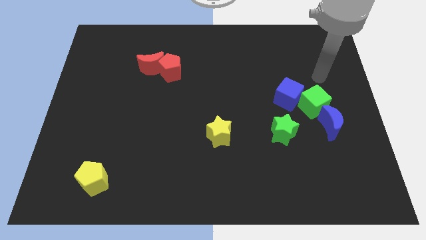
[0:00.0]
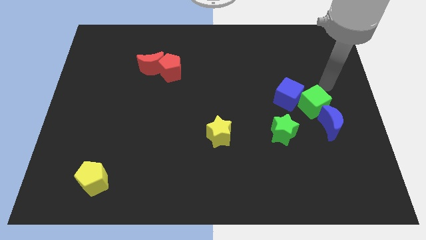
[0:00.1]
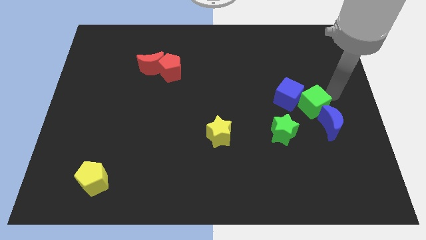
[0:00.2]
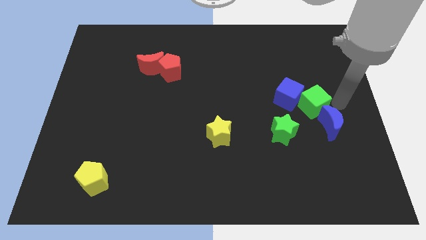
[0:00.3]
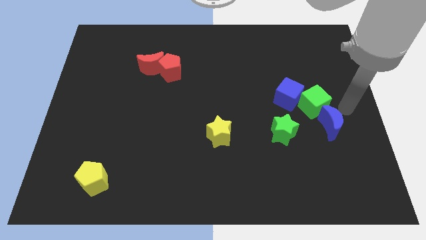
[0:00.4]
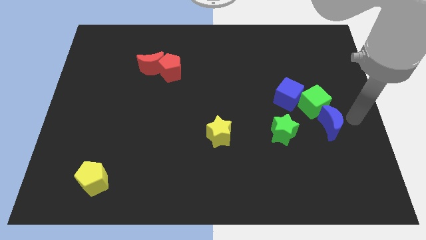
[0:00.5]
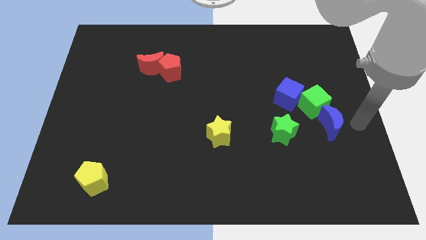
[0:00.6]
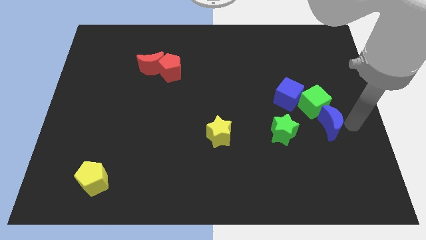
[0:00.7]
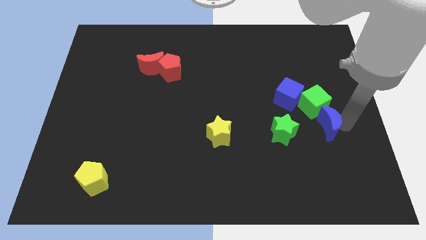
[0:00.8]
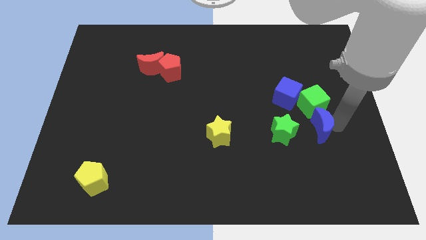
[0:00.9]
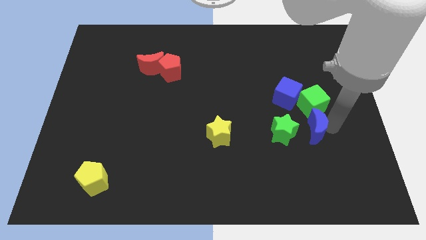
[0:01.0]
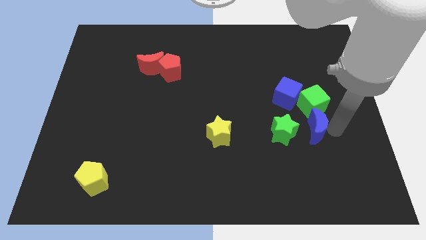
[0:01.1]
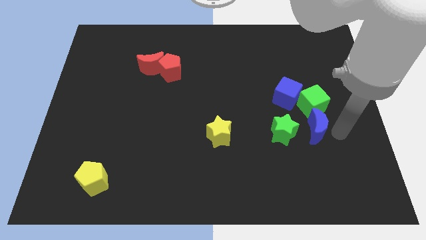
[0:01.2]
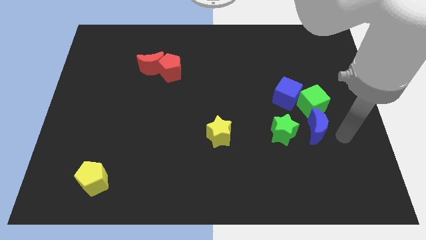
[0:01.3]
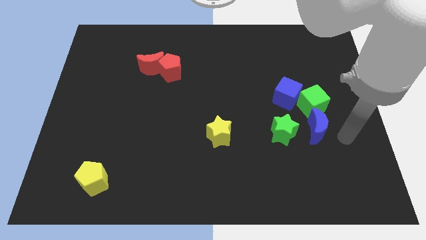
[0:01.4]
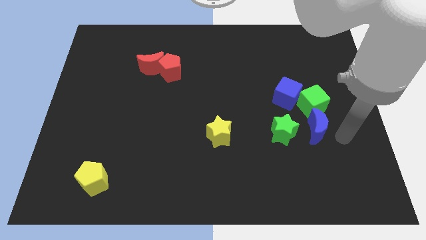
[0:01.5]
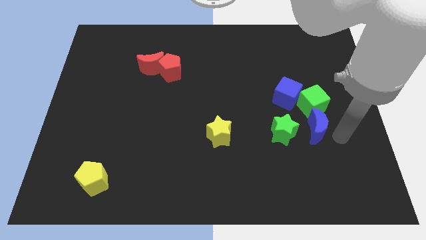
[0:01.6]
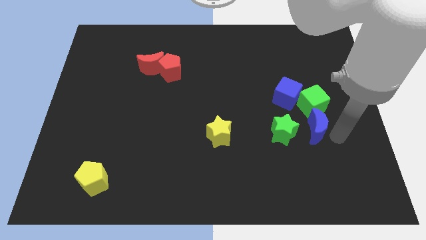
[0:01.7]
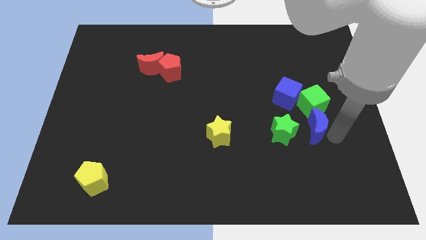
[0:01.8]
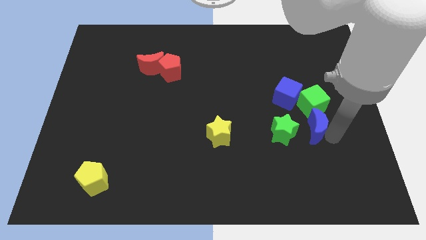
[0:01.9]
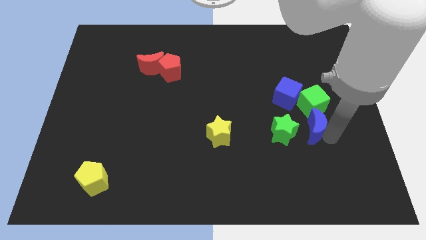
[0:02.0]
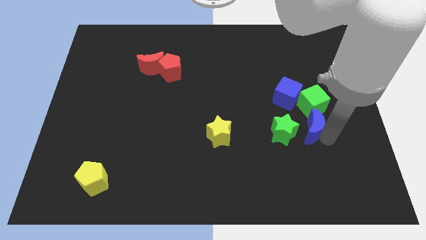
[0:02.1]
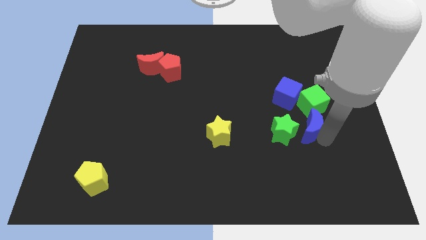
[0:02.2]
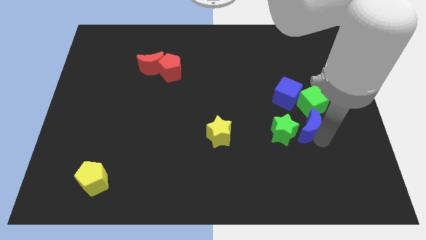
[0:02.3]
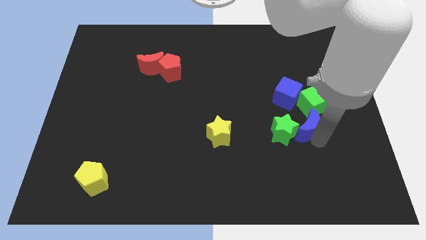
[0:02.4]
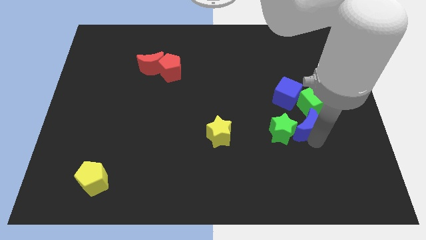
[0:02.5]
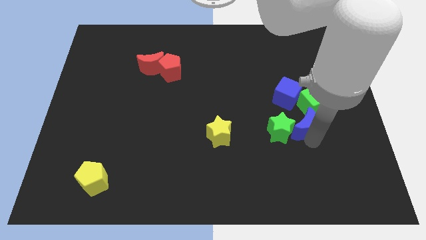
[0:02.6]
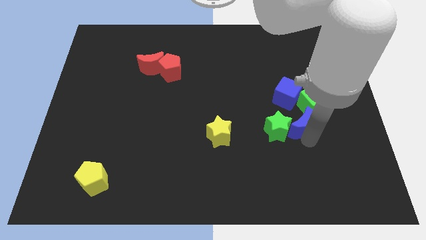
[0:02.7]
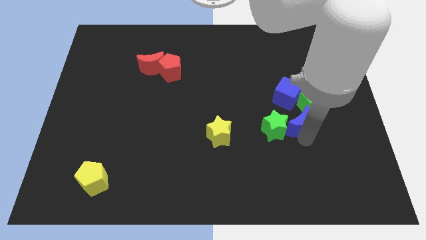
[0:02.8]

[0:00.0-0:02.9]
push the blue moon somewhat left

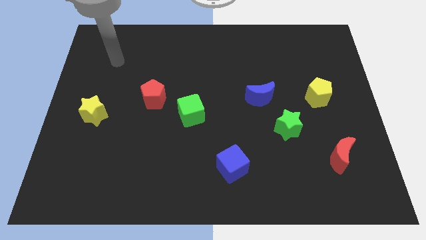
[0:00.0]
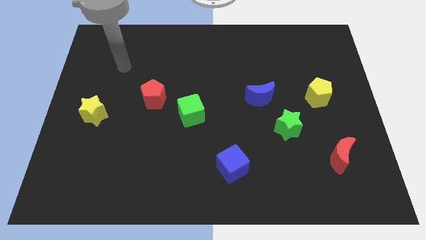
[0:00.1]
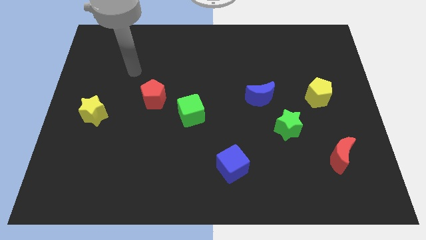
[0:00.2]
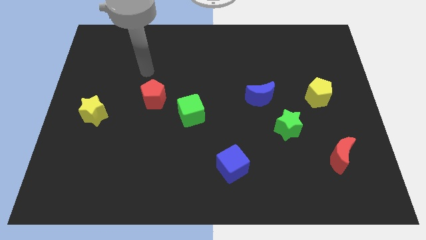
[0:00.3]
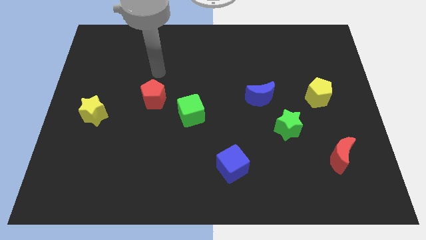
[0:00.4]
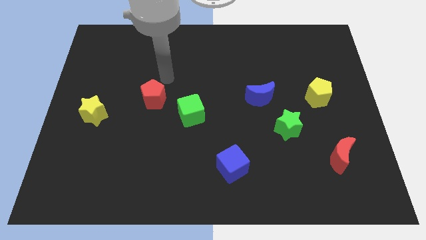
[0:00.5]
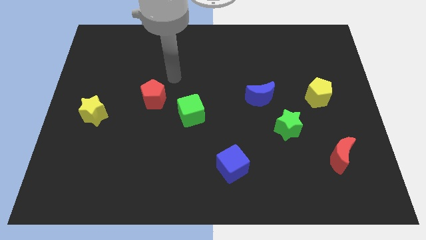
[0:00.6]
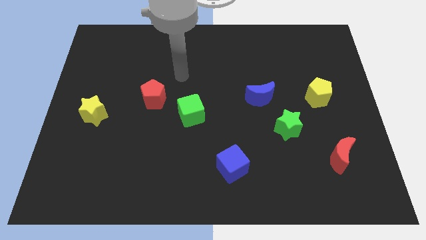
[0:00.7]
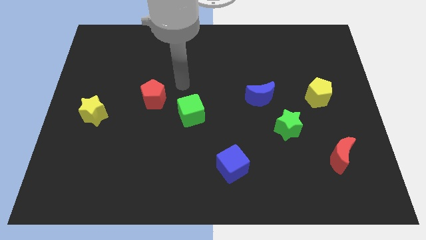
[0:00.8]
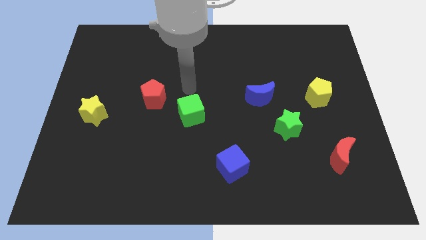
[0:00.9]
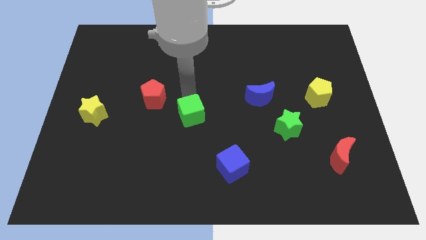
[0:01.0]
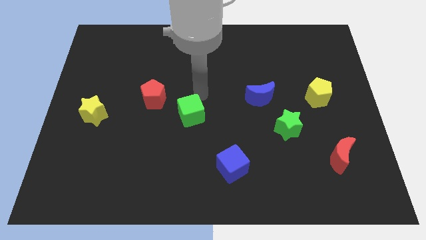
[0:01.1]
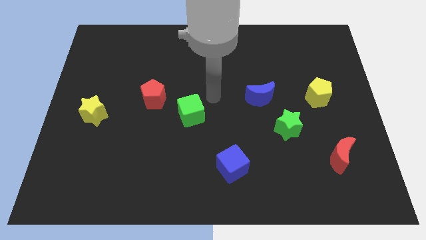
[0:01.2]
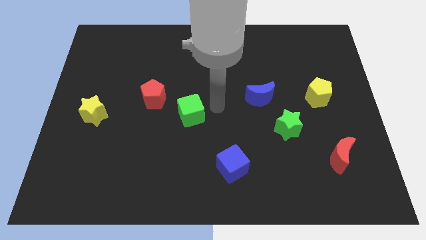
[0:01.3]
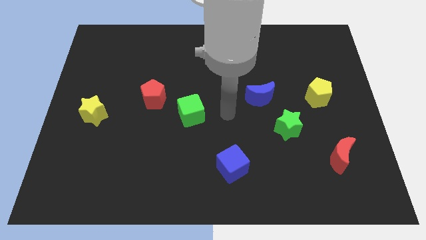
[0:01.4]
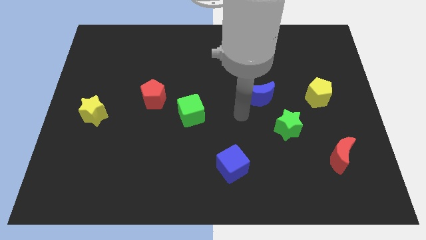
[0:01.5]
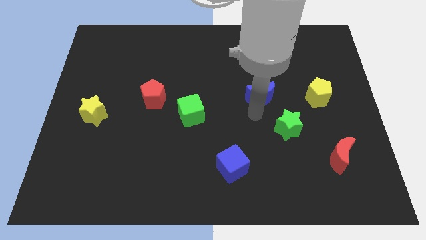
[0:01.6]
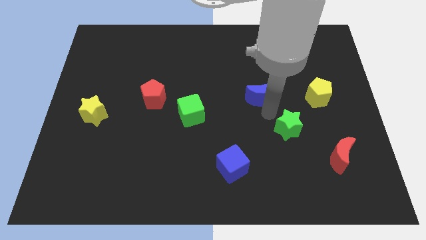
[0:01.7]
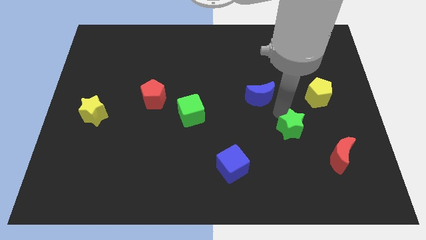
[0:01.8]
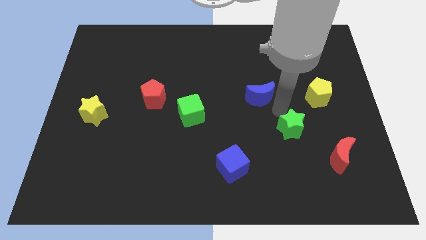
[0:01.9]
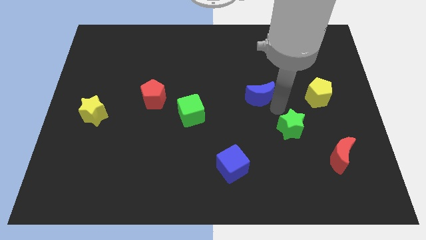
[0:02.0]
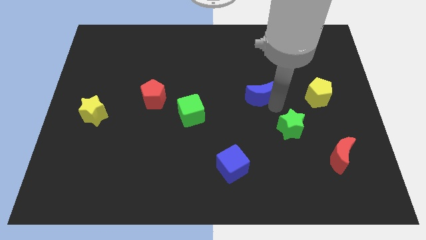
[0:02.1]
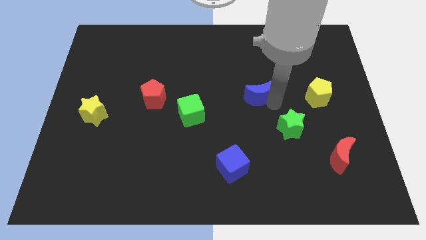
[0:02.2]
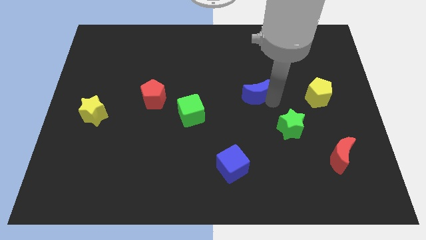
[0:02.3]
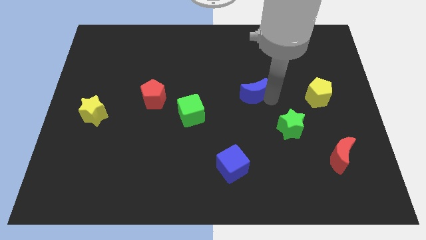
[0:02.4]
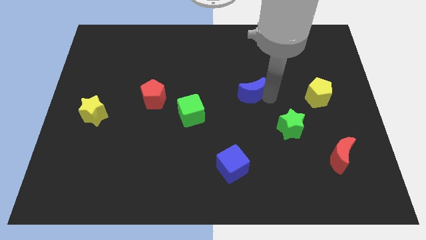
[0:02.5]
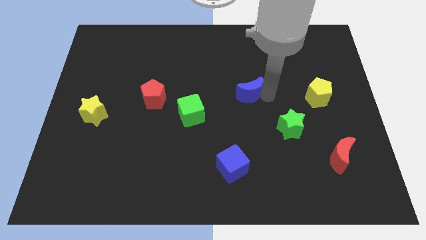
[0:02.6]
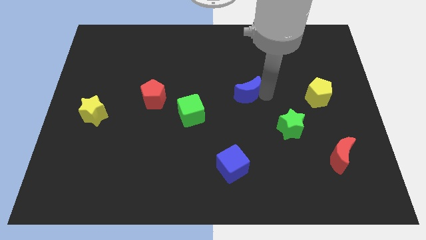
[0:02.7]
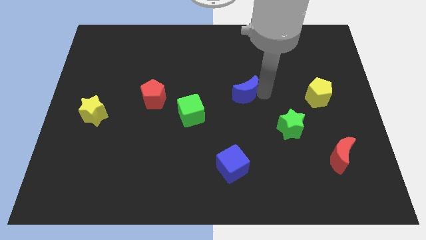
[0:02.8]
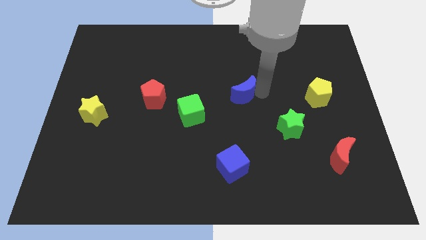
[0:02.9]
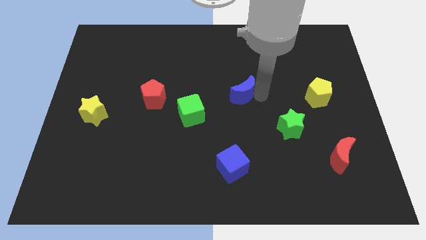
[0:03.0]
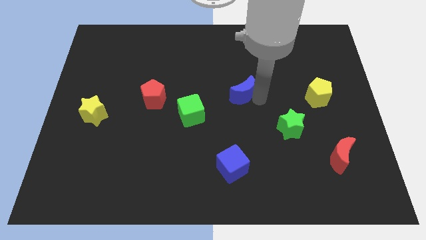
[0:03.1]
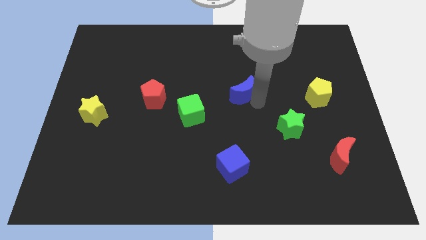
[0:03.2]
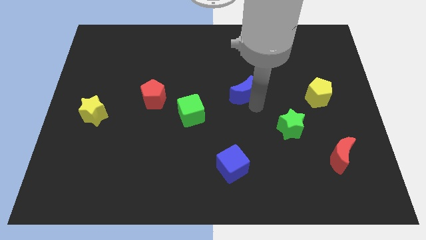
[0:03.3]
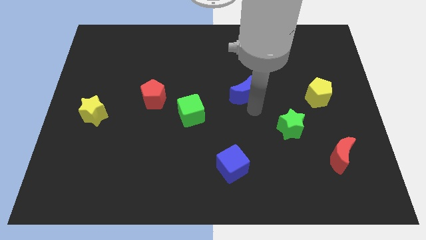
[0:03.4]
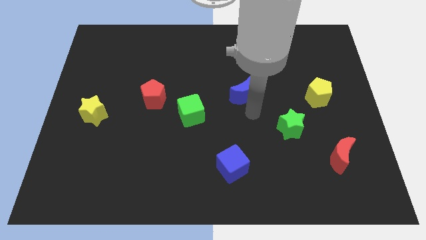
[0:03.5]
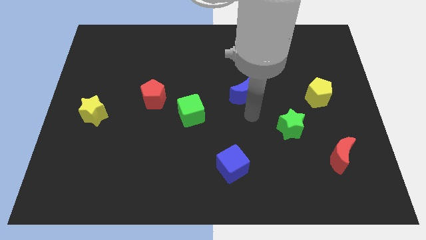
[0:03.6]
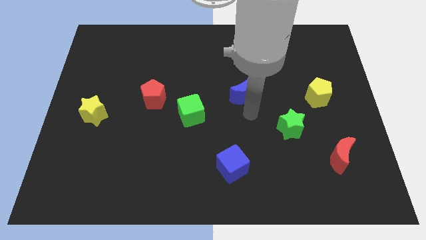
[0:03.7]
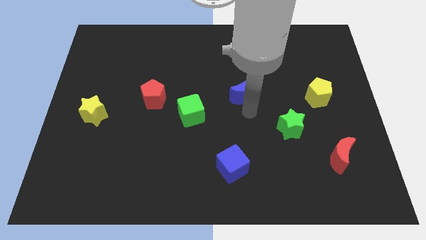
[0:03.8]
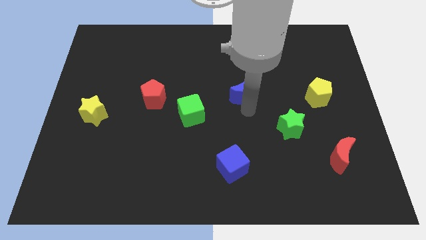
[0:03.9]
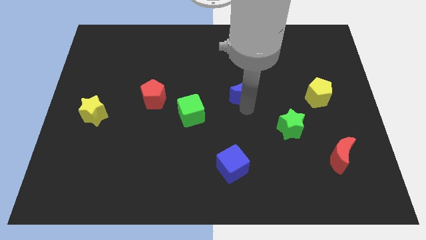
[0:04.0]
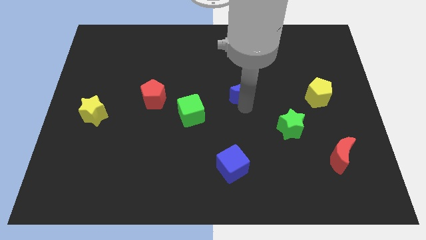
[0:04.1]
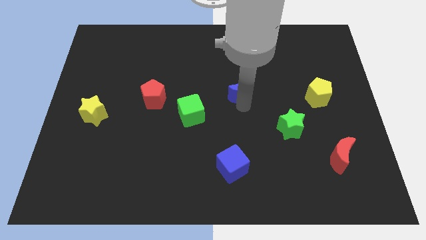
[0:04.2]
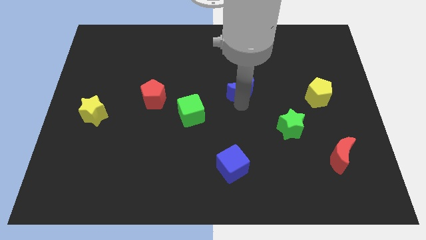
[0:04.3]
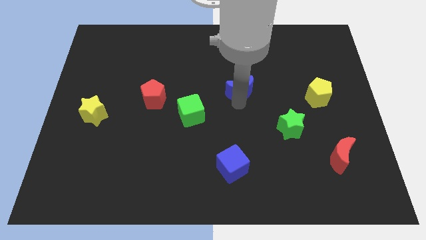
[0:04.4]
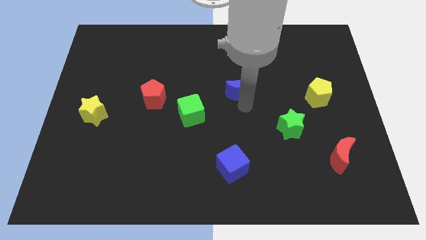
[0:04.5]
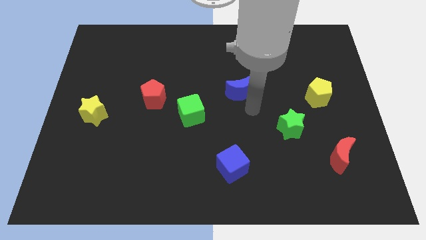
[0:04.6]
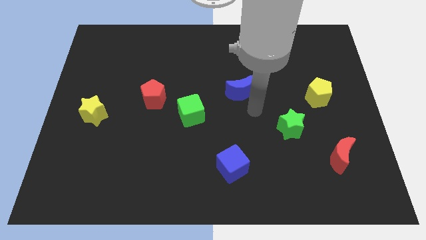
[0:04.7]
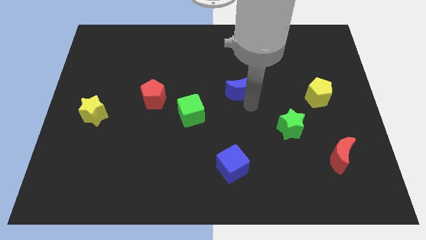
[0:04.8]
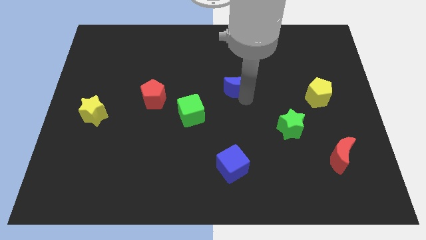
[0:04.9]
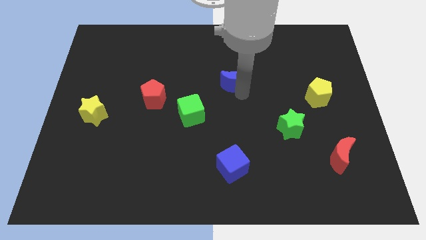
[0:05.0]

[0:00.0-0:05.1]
push the blue moon upwards and left diagonally a little bit
